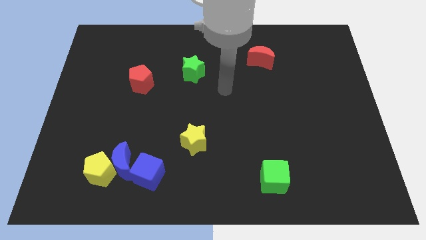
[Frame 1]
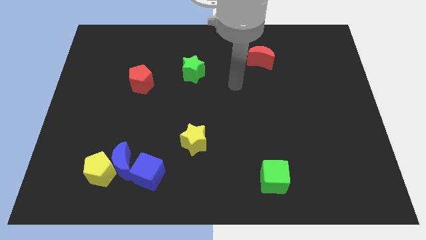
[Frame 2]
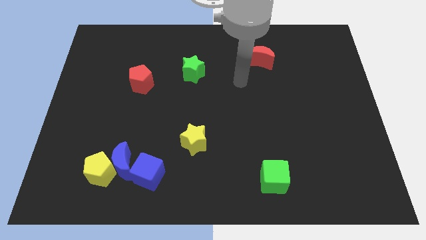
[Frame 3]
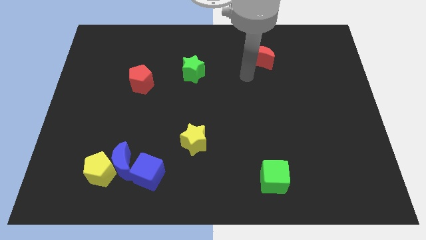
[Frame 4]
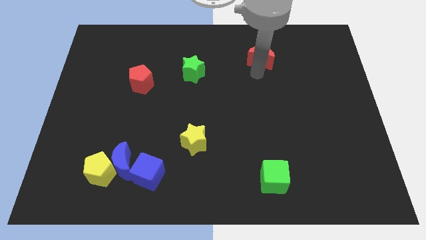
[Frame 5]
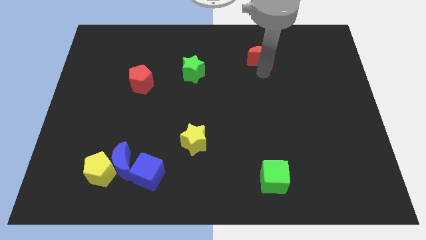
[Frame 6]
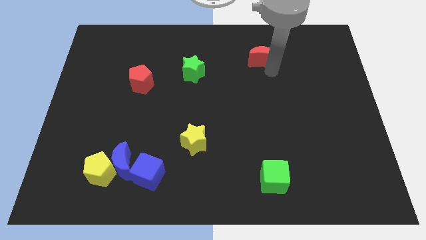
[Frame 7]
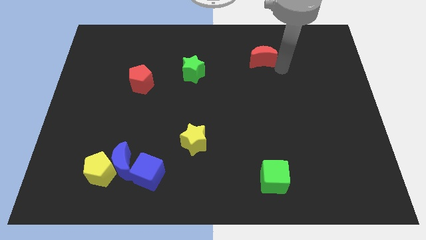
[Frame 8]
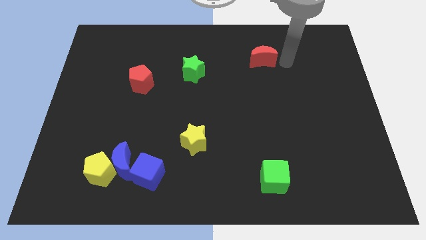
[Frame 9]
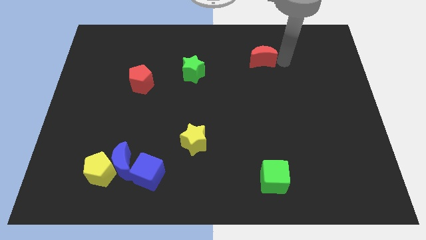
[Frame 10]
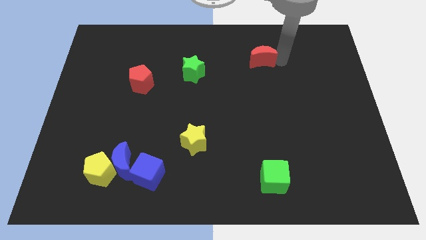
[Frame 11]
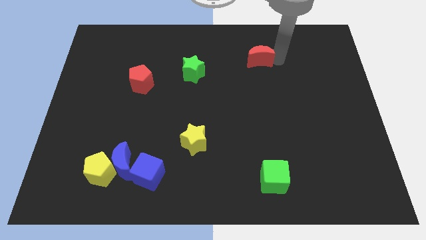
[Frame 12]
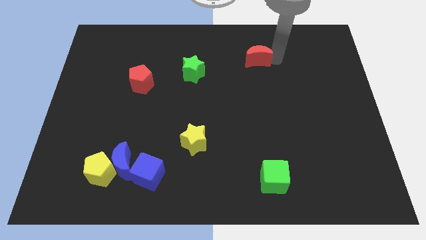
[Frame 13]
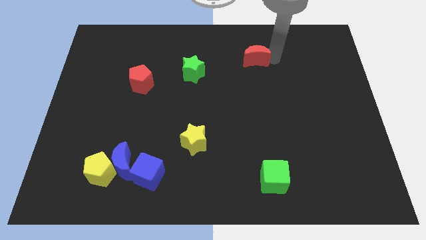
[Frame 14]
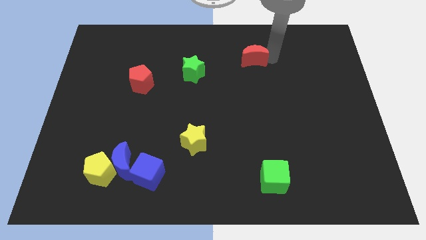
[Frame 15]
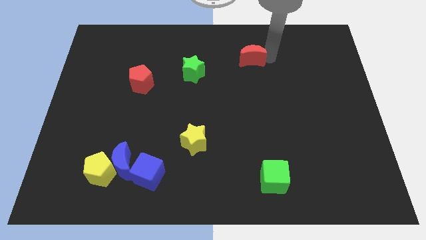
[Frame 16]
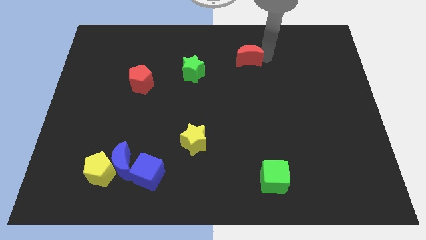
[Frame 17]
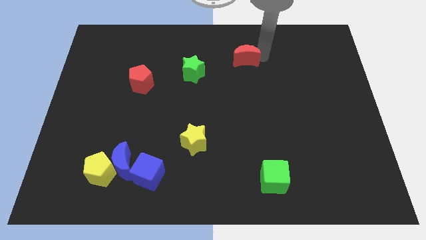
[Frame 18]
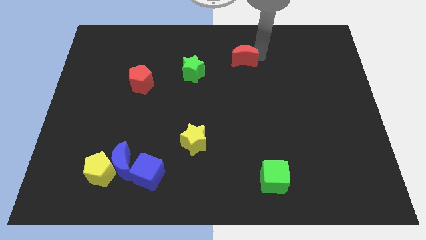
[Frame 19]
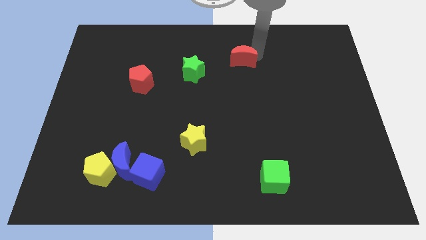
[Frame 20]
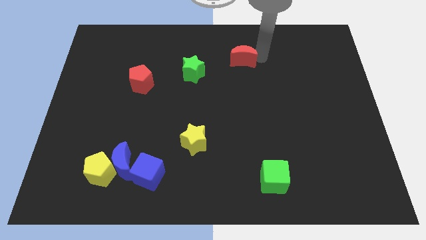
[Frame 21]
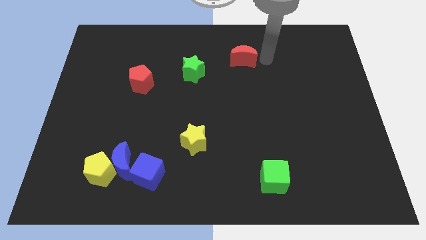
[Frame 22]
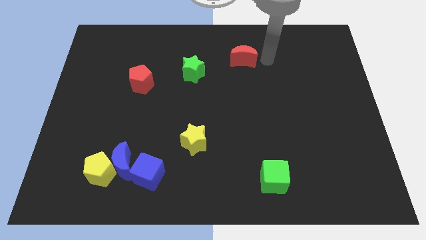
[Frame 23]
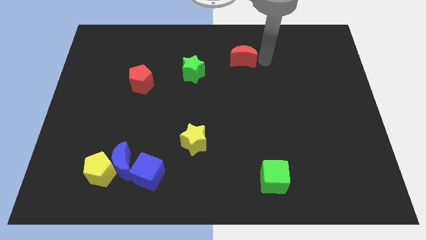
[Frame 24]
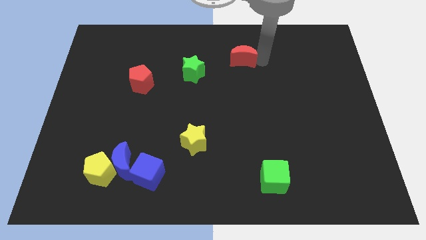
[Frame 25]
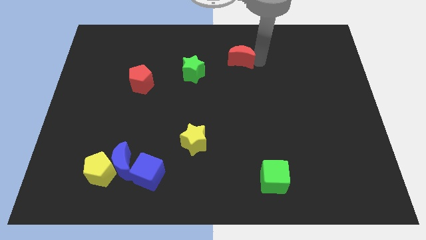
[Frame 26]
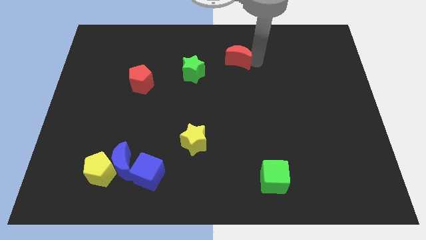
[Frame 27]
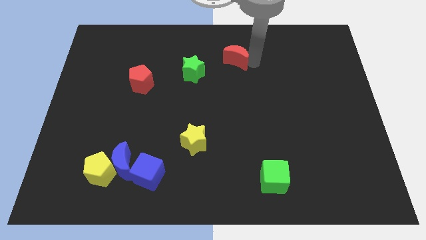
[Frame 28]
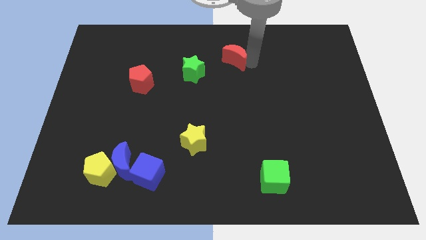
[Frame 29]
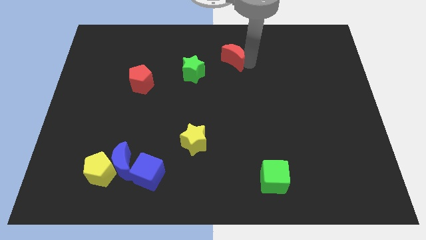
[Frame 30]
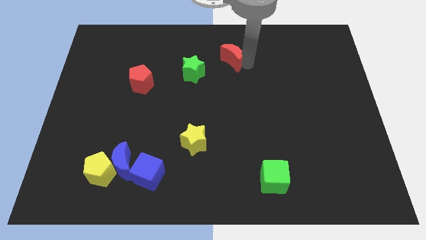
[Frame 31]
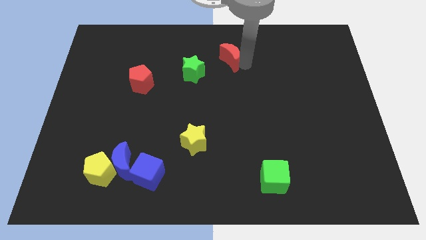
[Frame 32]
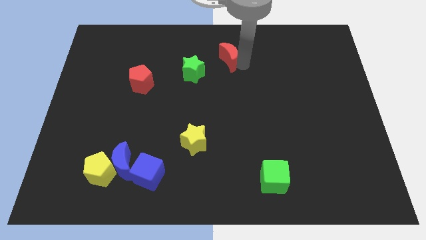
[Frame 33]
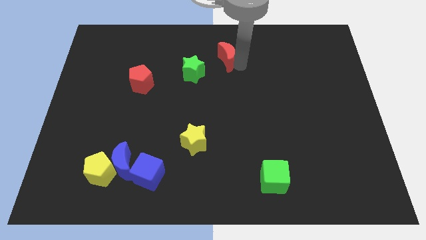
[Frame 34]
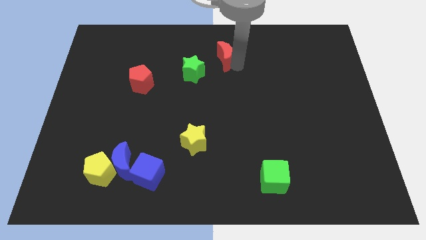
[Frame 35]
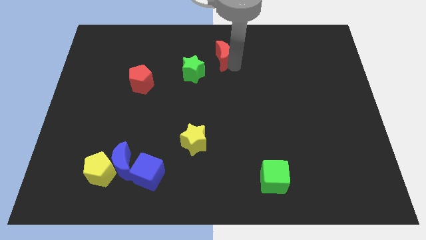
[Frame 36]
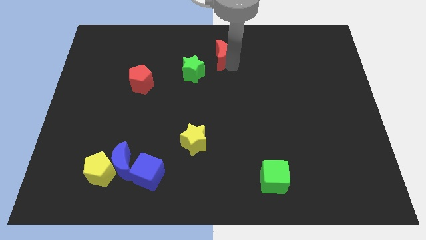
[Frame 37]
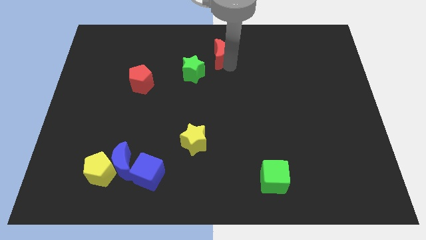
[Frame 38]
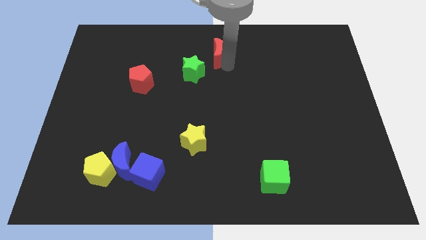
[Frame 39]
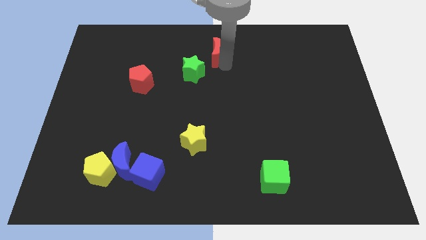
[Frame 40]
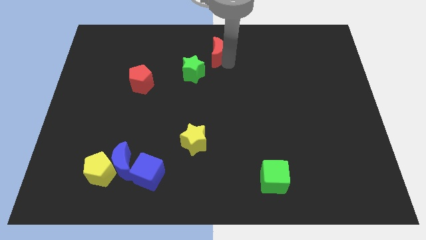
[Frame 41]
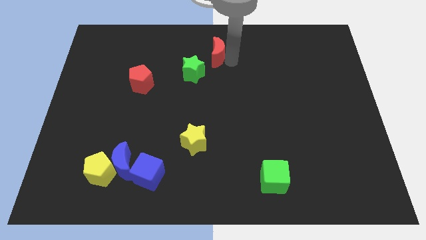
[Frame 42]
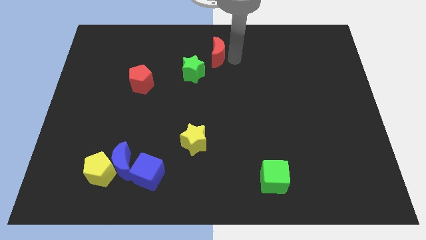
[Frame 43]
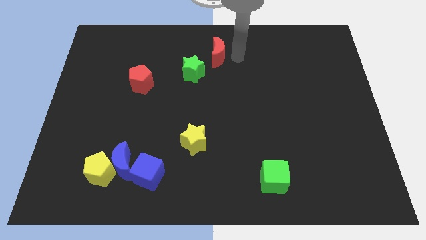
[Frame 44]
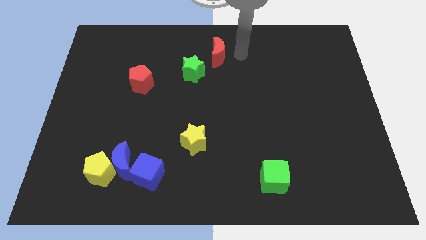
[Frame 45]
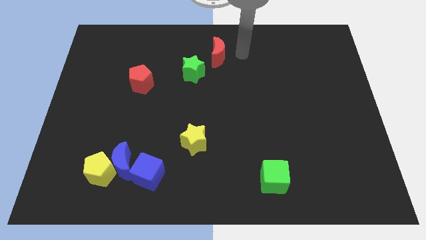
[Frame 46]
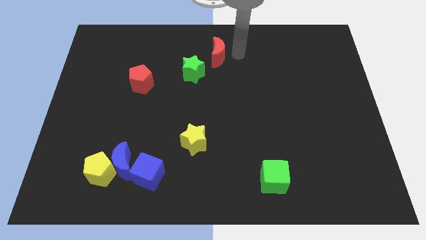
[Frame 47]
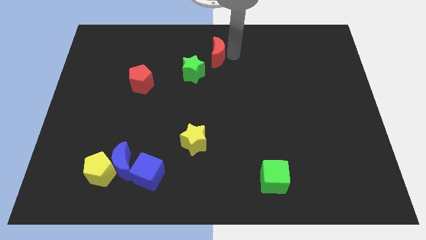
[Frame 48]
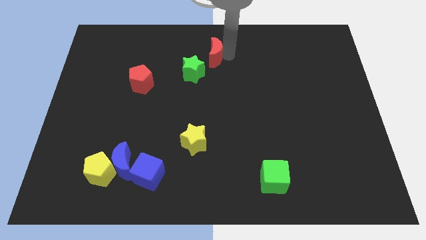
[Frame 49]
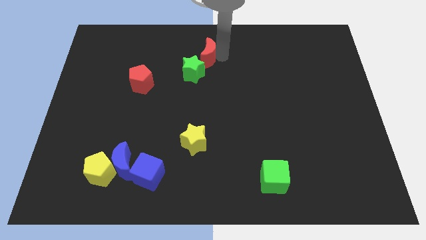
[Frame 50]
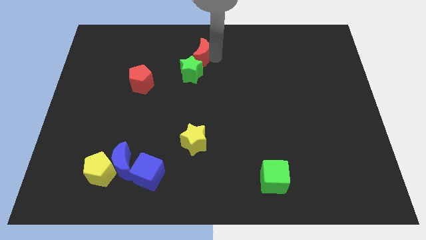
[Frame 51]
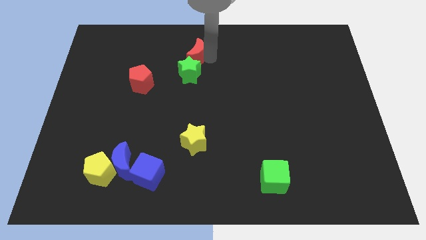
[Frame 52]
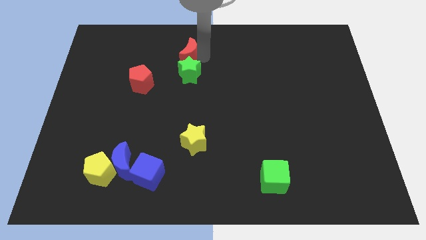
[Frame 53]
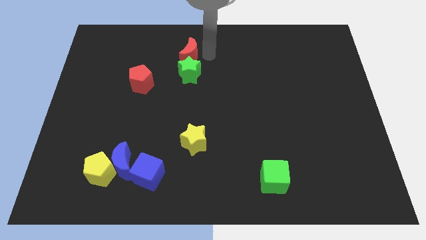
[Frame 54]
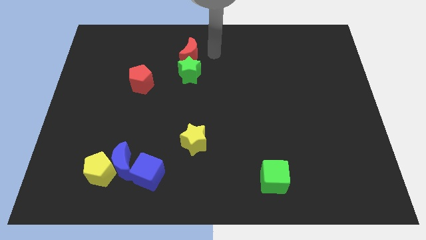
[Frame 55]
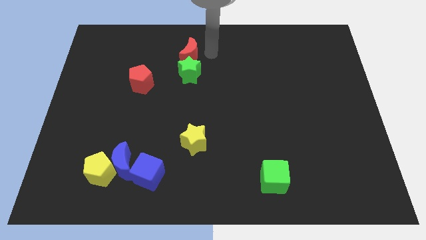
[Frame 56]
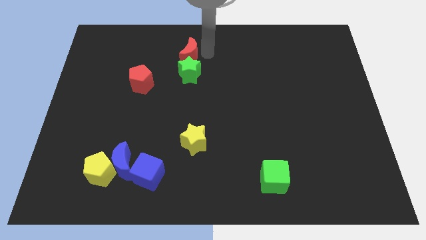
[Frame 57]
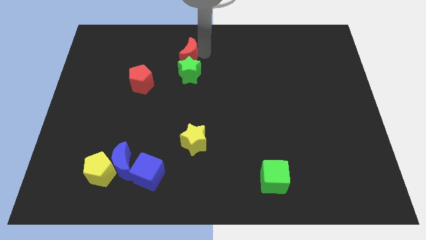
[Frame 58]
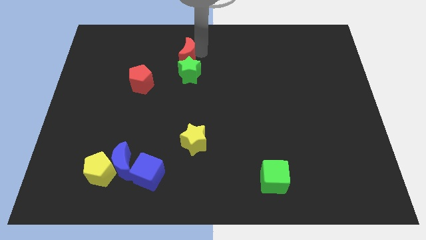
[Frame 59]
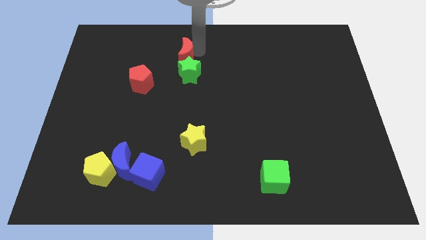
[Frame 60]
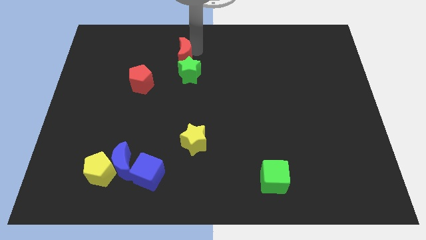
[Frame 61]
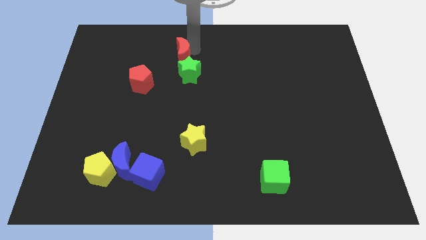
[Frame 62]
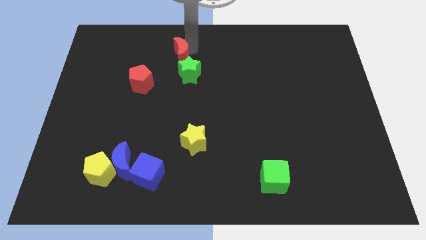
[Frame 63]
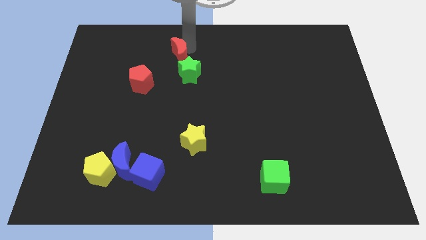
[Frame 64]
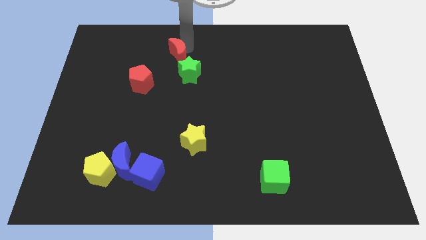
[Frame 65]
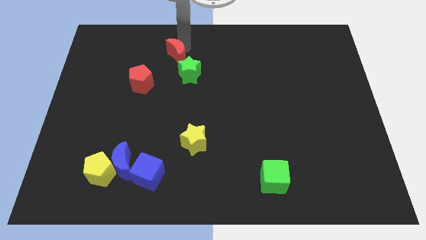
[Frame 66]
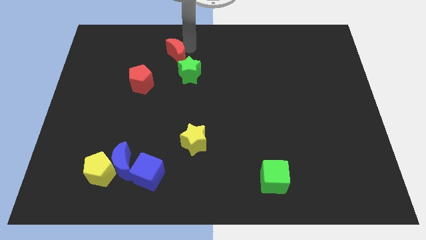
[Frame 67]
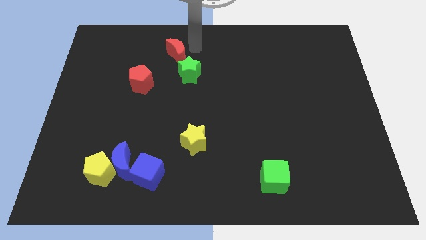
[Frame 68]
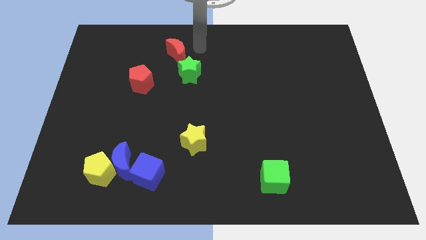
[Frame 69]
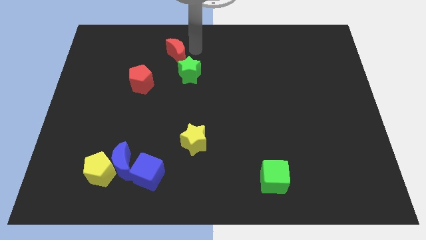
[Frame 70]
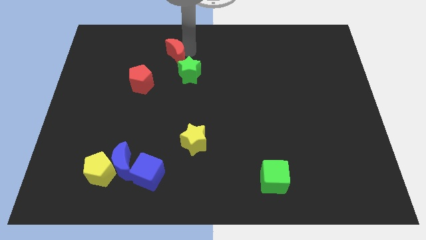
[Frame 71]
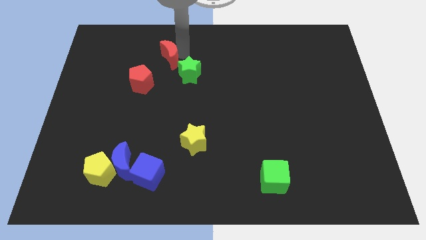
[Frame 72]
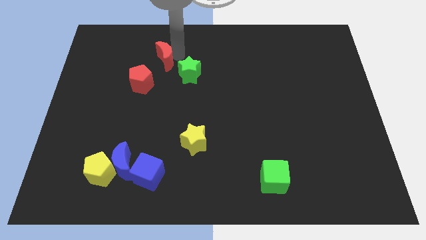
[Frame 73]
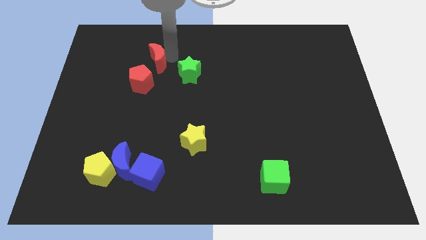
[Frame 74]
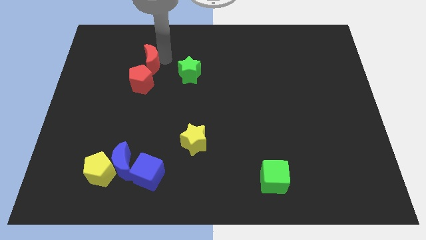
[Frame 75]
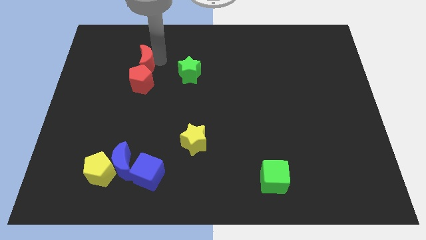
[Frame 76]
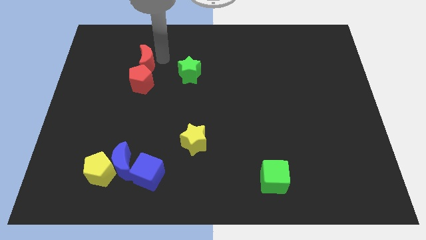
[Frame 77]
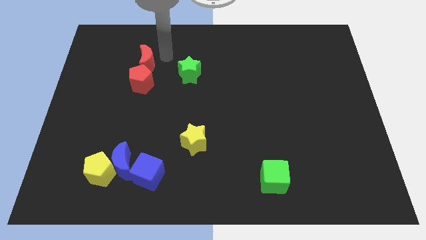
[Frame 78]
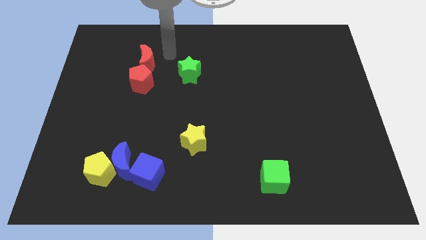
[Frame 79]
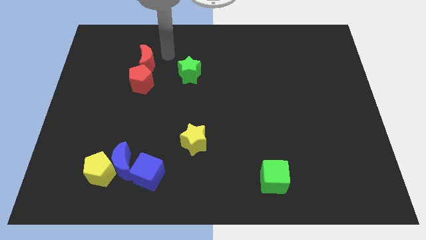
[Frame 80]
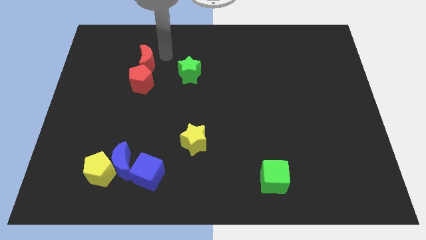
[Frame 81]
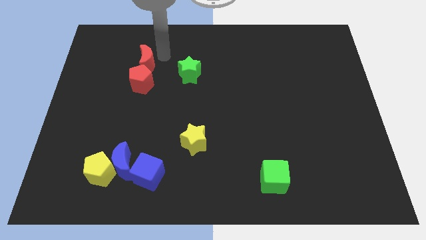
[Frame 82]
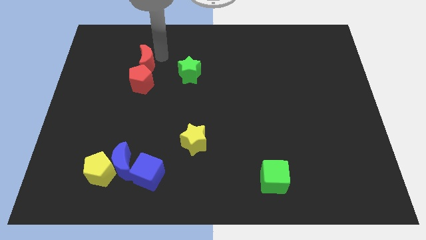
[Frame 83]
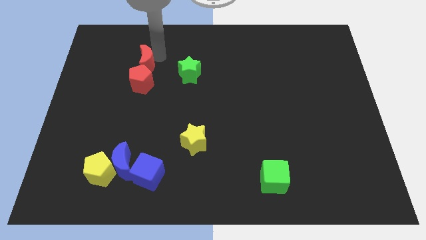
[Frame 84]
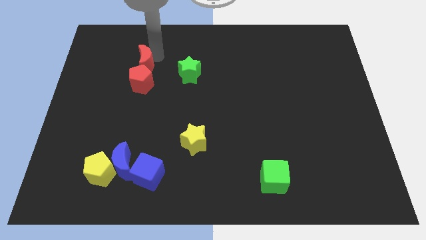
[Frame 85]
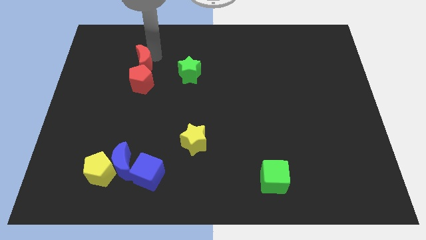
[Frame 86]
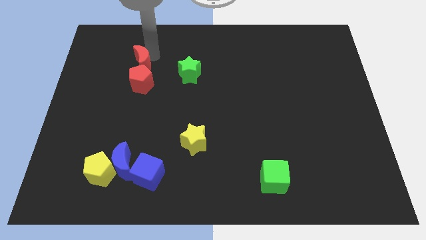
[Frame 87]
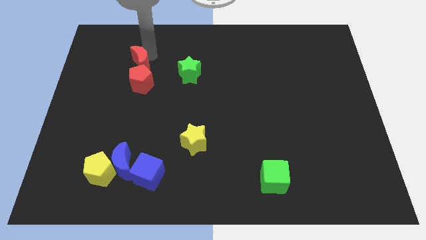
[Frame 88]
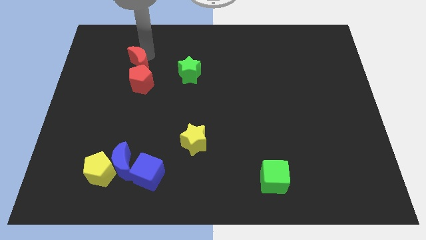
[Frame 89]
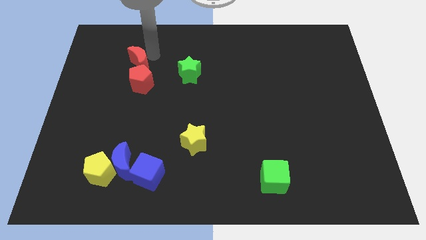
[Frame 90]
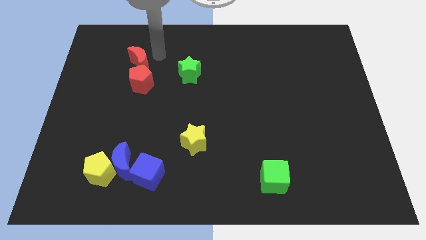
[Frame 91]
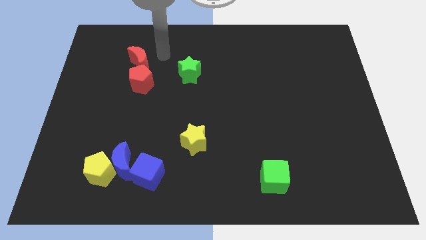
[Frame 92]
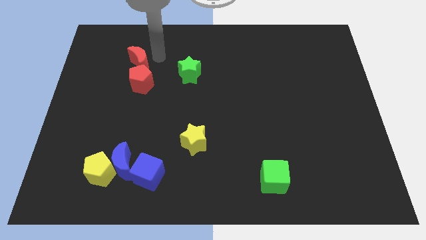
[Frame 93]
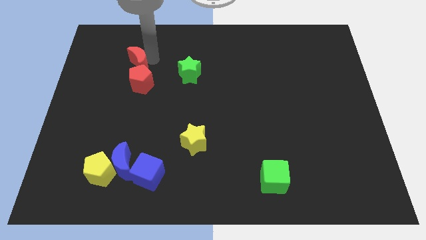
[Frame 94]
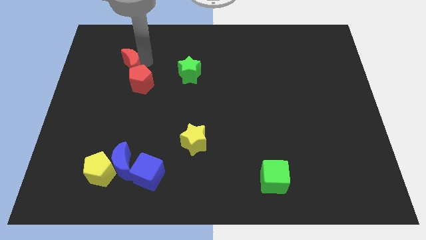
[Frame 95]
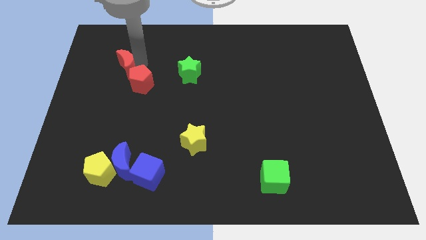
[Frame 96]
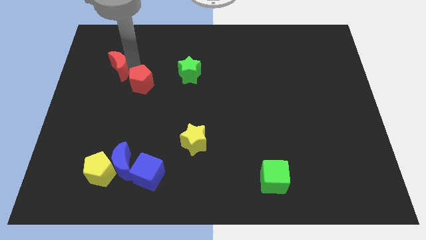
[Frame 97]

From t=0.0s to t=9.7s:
push the red moon left of the red pentagon
